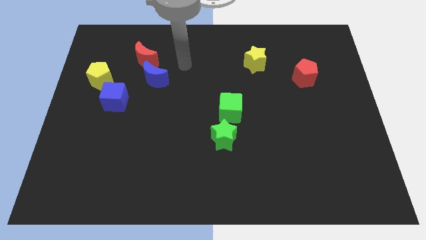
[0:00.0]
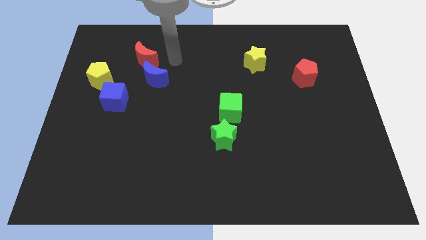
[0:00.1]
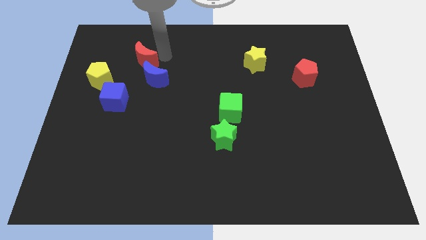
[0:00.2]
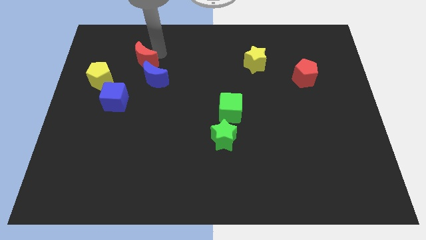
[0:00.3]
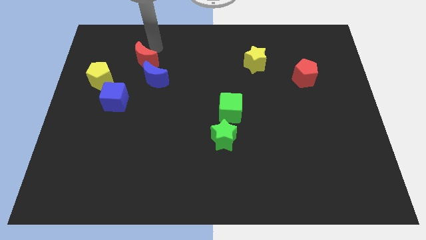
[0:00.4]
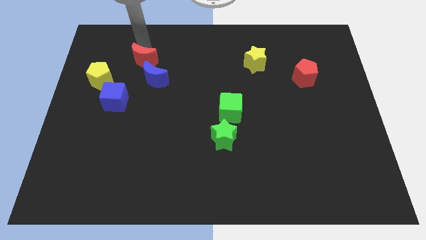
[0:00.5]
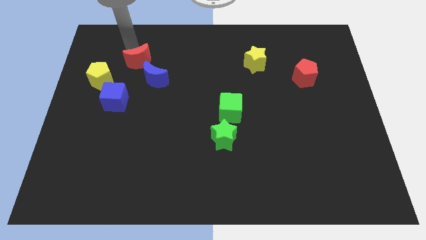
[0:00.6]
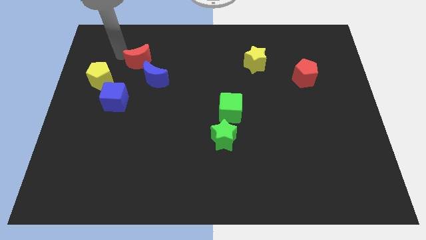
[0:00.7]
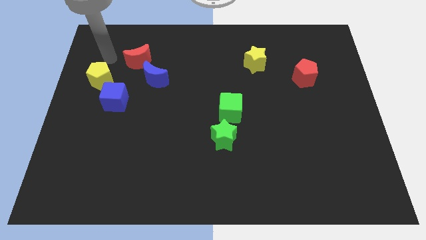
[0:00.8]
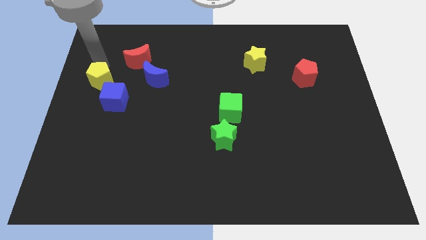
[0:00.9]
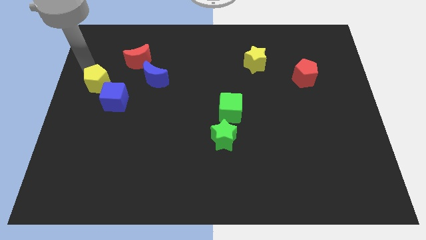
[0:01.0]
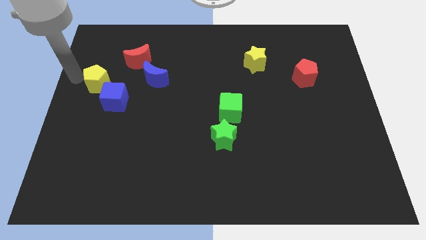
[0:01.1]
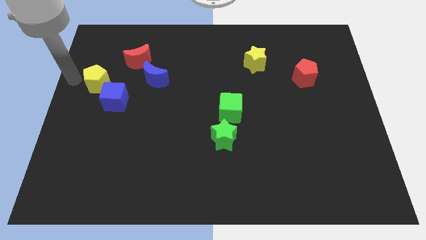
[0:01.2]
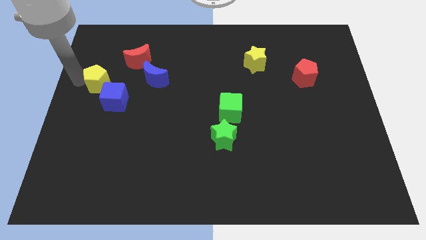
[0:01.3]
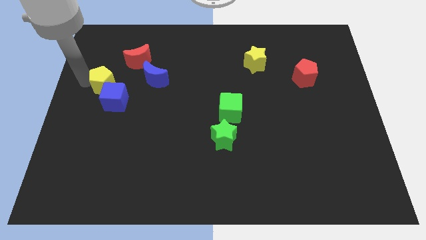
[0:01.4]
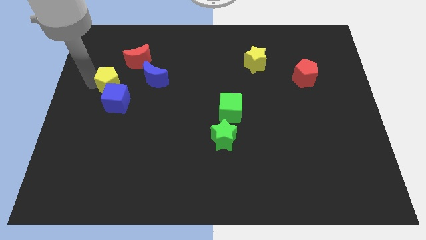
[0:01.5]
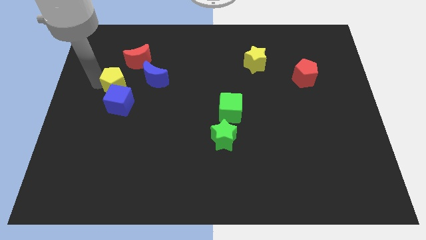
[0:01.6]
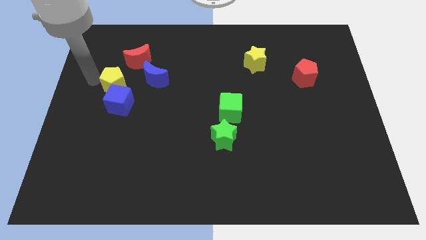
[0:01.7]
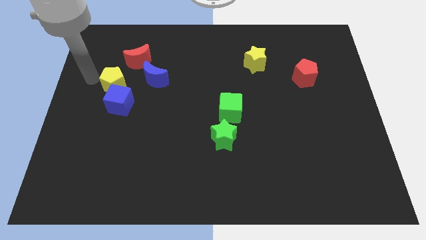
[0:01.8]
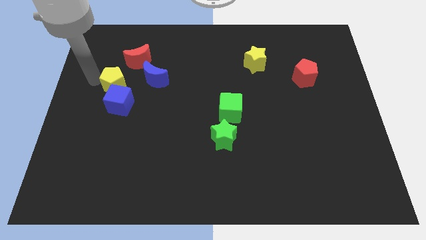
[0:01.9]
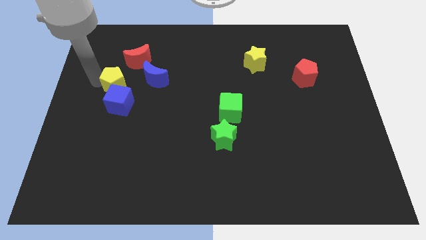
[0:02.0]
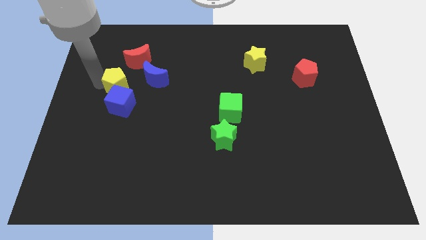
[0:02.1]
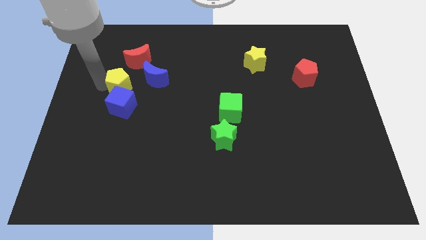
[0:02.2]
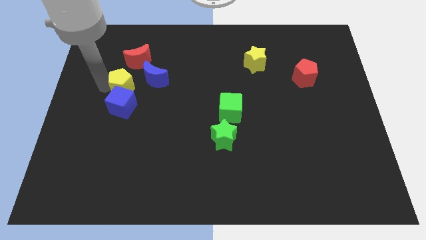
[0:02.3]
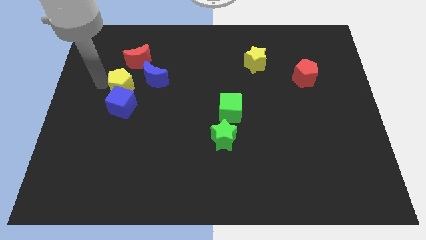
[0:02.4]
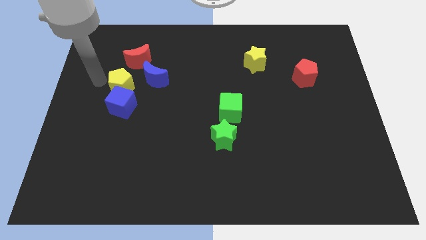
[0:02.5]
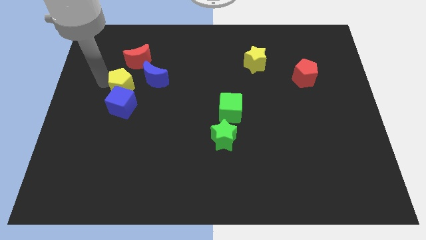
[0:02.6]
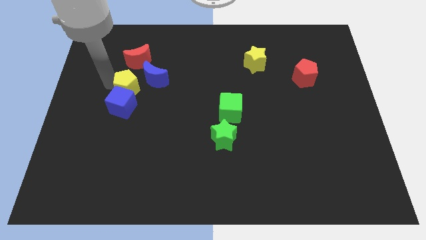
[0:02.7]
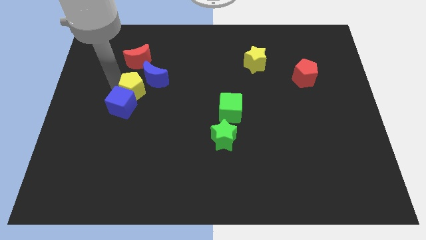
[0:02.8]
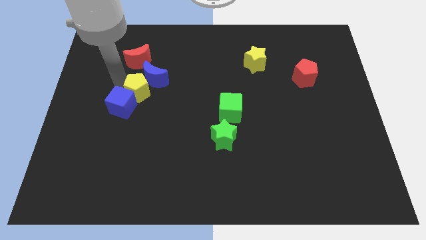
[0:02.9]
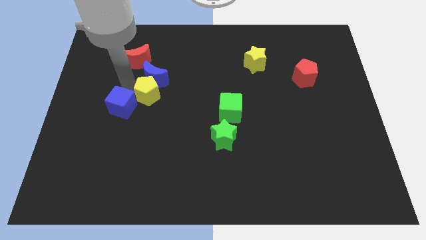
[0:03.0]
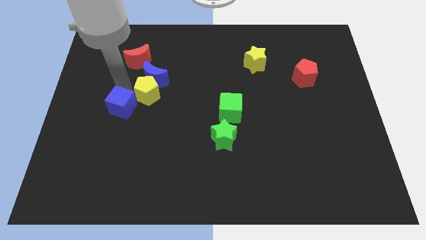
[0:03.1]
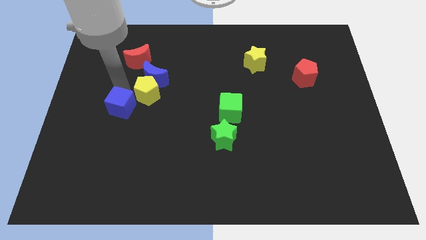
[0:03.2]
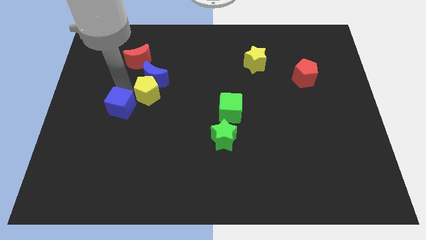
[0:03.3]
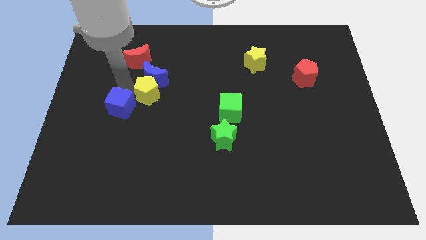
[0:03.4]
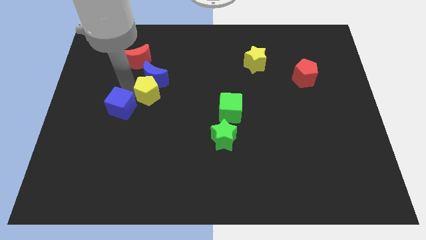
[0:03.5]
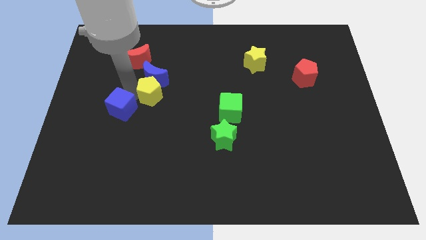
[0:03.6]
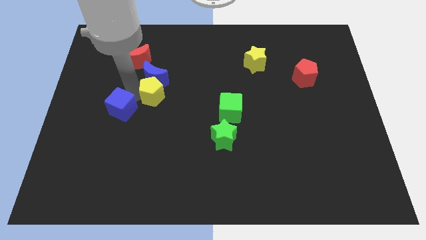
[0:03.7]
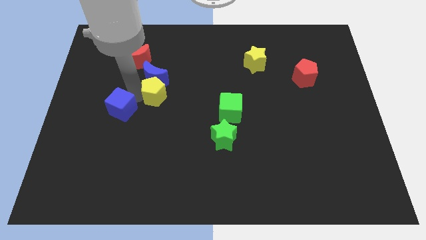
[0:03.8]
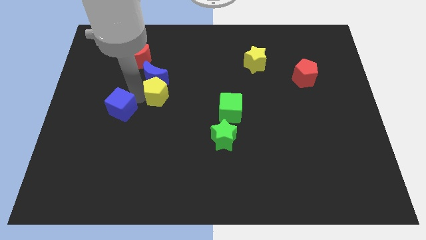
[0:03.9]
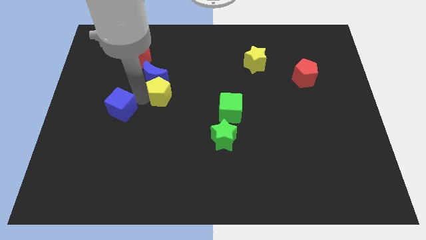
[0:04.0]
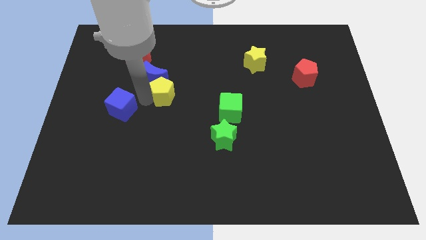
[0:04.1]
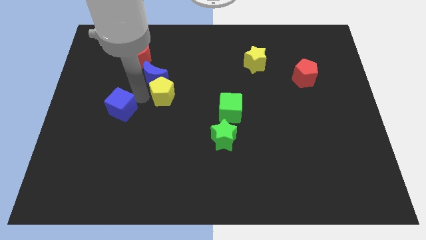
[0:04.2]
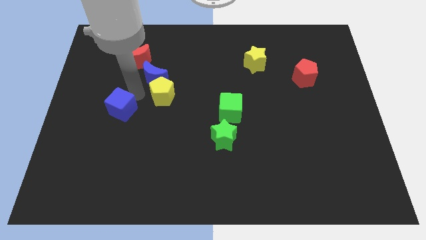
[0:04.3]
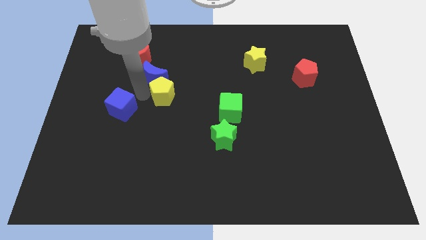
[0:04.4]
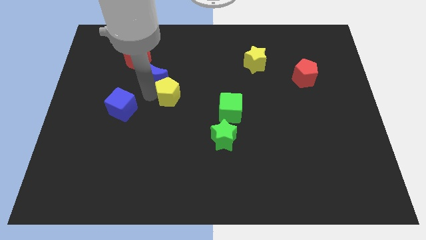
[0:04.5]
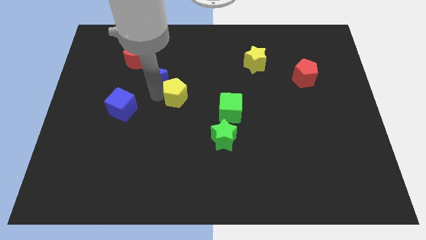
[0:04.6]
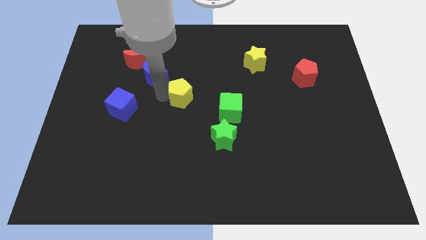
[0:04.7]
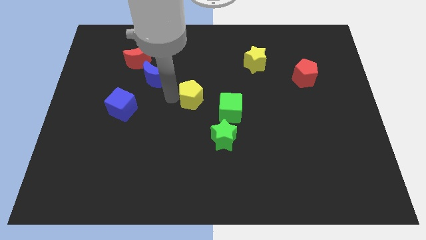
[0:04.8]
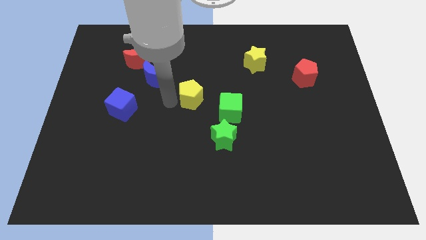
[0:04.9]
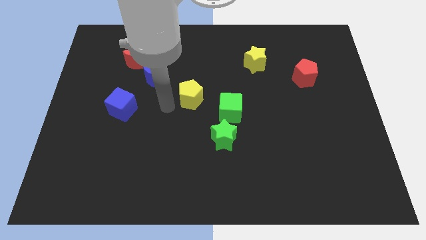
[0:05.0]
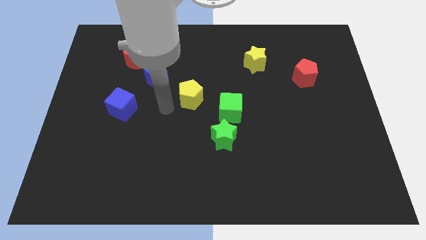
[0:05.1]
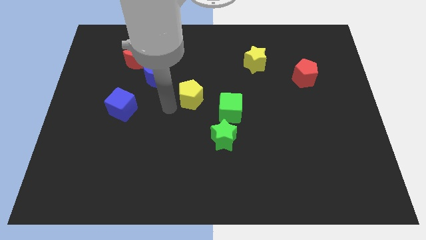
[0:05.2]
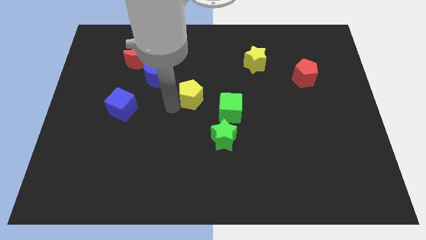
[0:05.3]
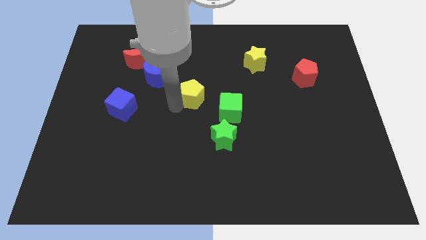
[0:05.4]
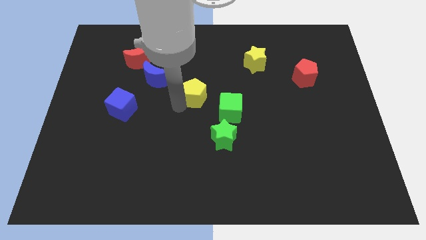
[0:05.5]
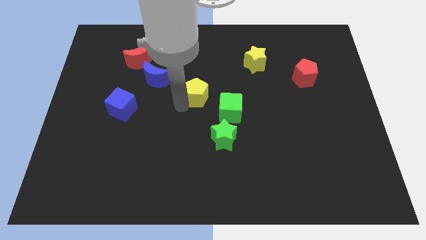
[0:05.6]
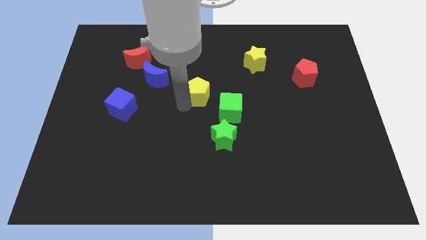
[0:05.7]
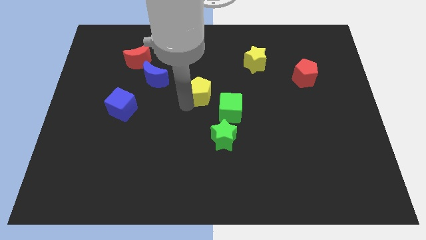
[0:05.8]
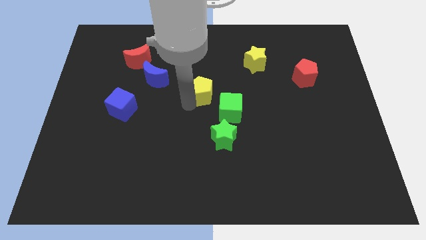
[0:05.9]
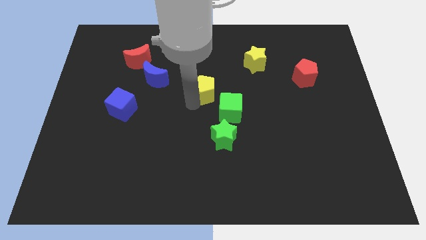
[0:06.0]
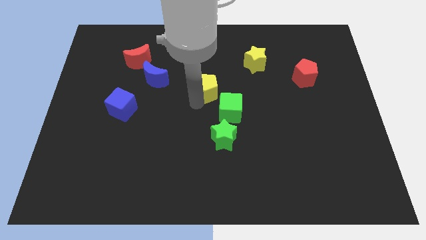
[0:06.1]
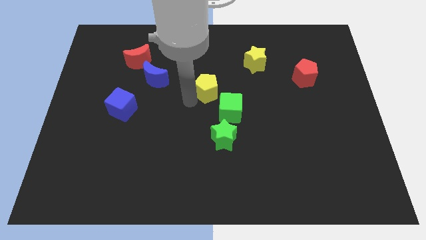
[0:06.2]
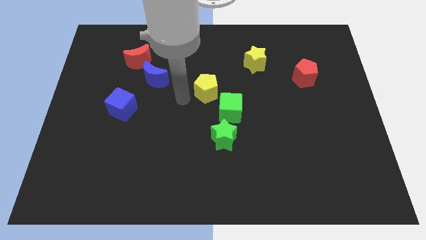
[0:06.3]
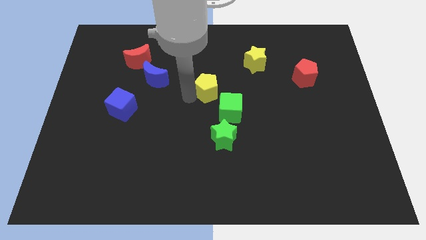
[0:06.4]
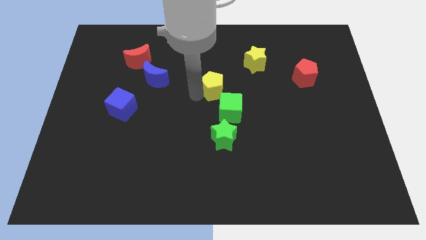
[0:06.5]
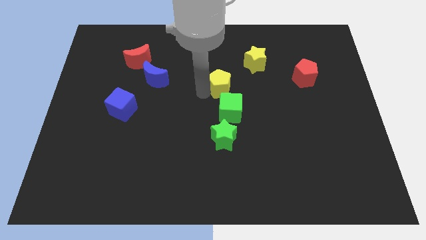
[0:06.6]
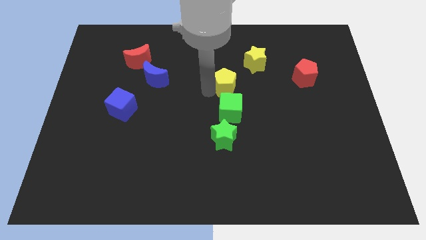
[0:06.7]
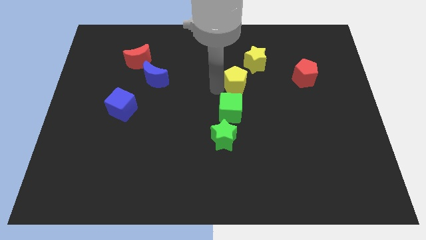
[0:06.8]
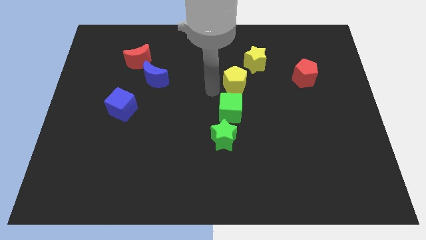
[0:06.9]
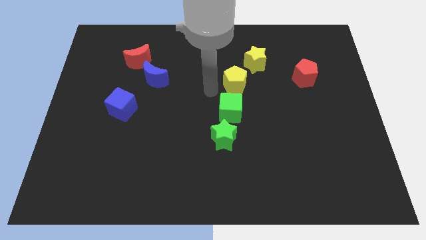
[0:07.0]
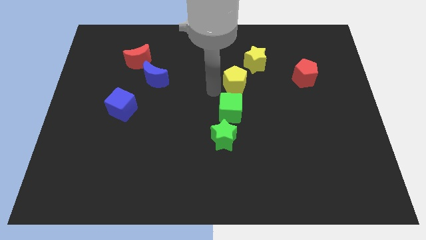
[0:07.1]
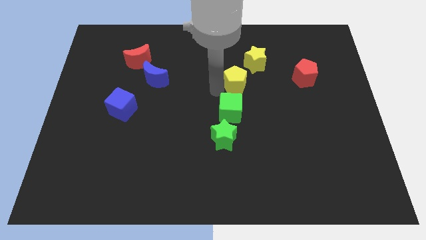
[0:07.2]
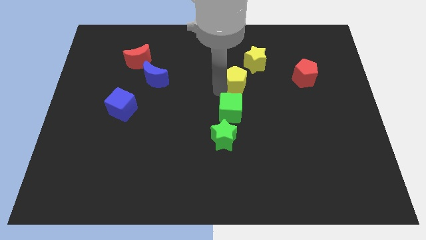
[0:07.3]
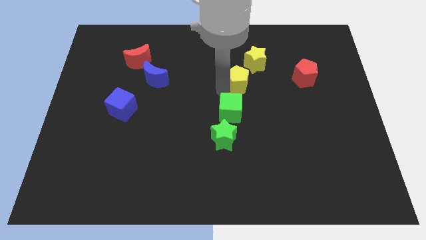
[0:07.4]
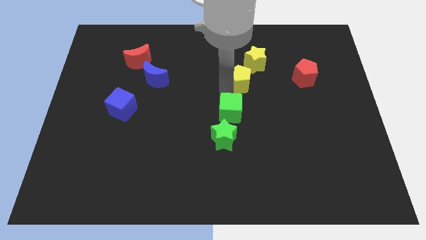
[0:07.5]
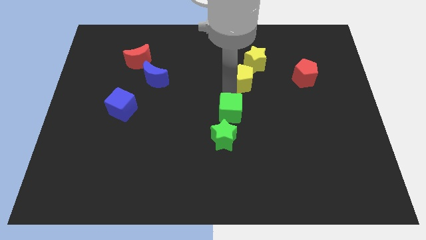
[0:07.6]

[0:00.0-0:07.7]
slide the yellow pentagon to the left of the red pentagon
